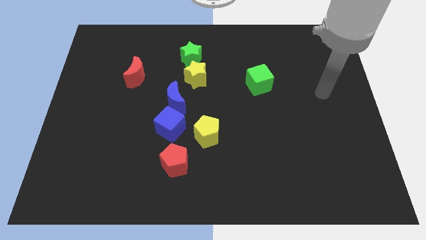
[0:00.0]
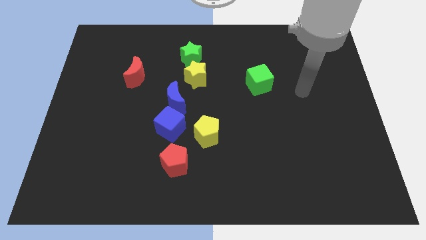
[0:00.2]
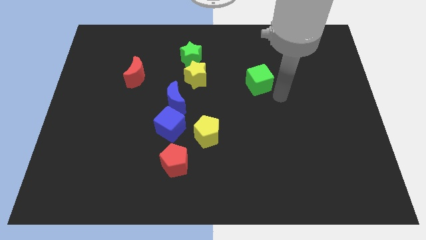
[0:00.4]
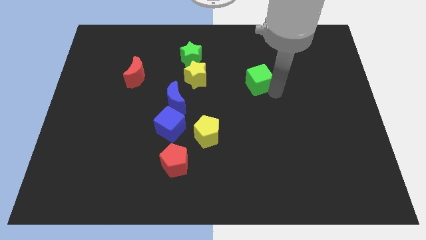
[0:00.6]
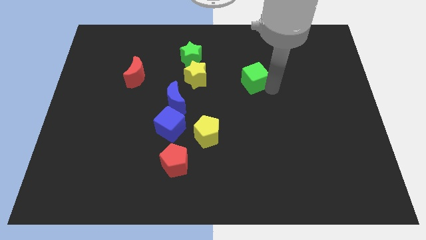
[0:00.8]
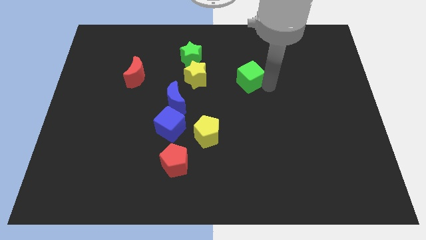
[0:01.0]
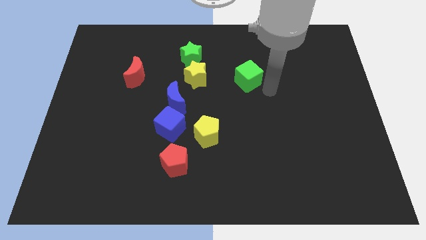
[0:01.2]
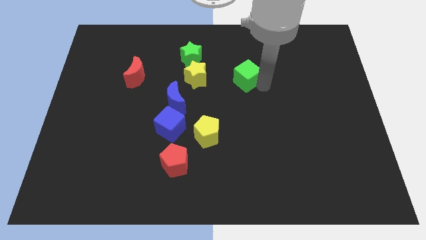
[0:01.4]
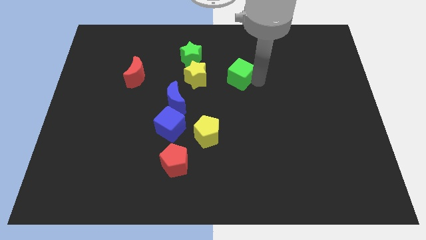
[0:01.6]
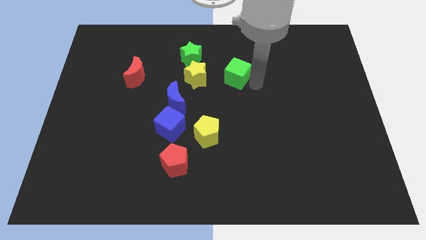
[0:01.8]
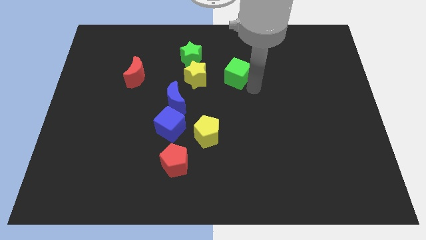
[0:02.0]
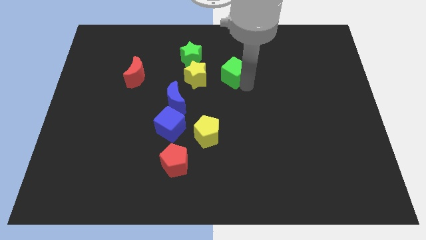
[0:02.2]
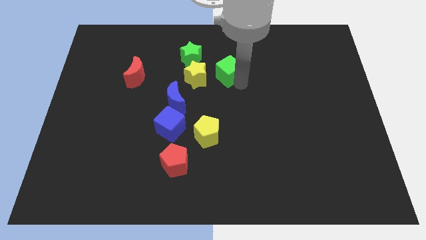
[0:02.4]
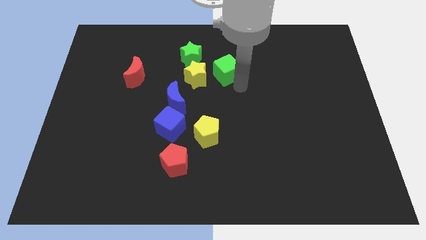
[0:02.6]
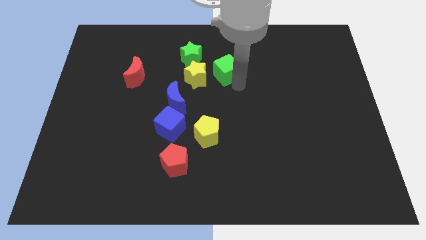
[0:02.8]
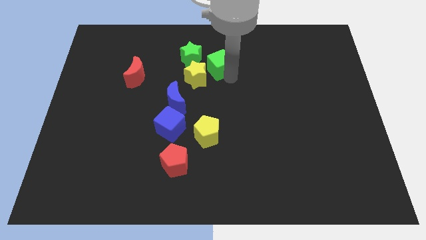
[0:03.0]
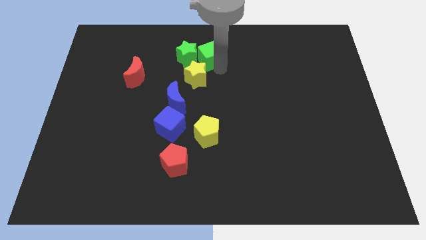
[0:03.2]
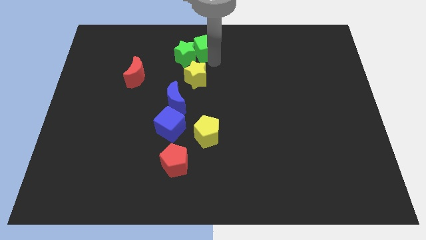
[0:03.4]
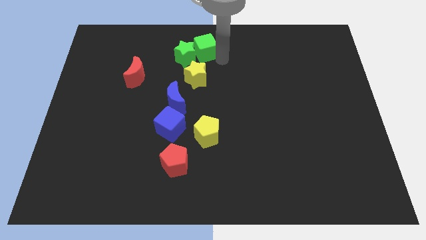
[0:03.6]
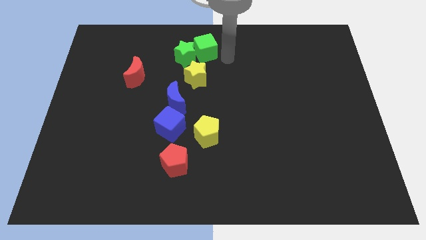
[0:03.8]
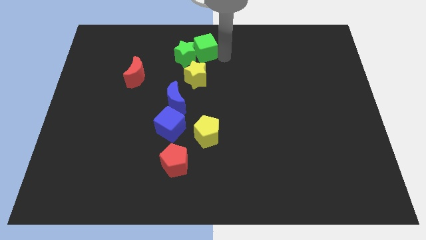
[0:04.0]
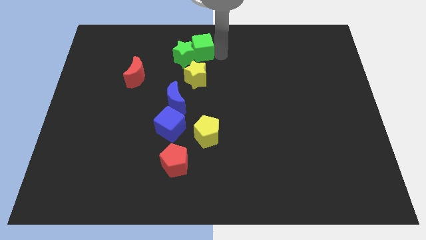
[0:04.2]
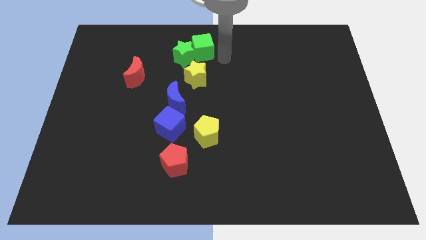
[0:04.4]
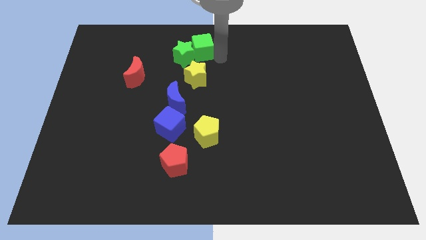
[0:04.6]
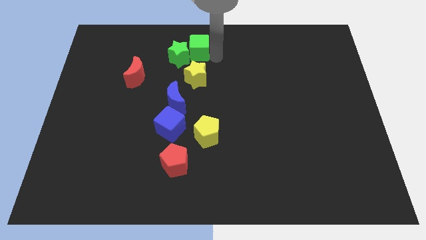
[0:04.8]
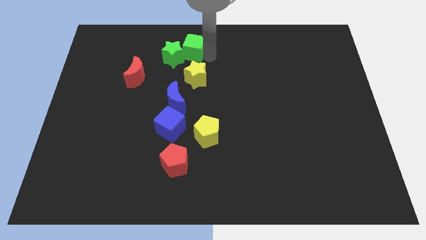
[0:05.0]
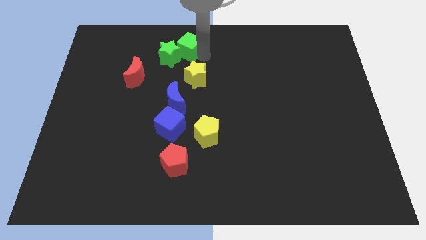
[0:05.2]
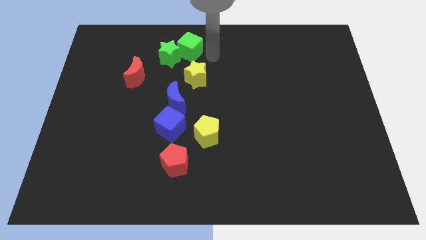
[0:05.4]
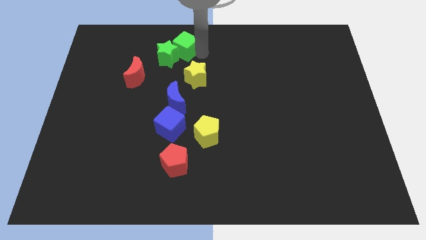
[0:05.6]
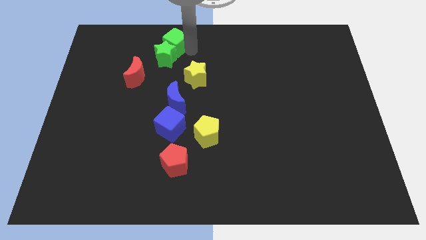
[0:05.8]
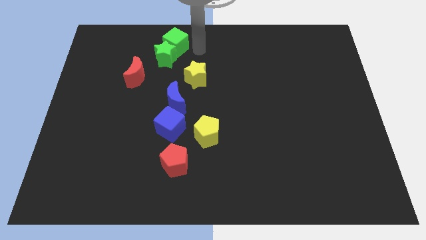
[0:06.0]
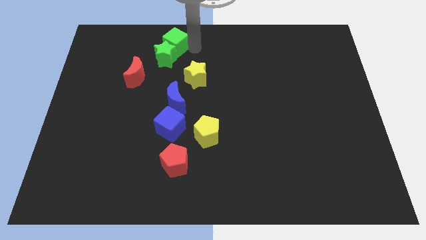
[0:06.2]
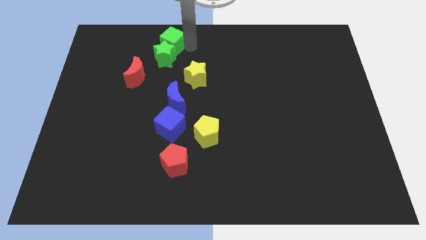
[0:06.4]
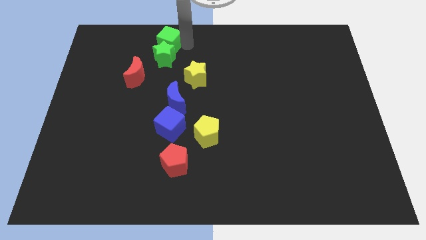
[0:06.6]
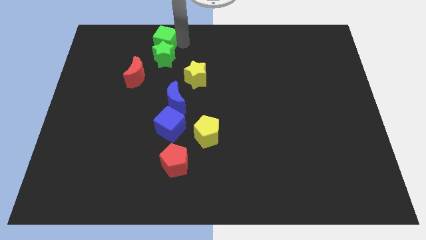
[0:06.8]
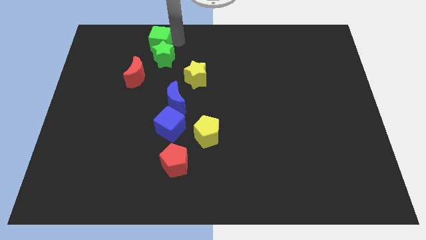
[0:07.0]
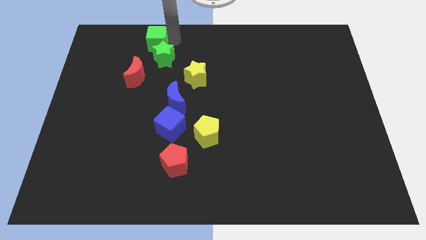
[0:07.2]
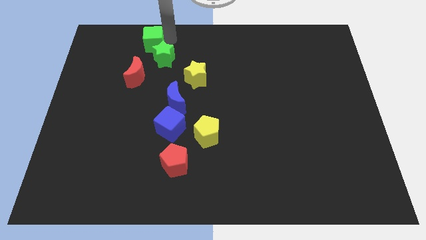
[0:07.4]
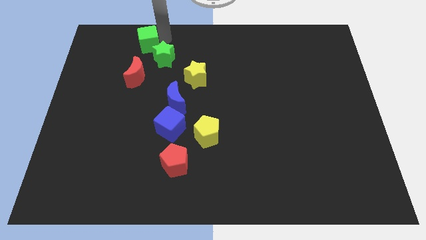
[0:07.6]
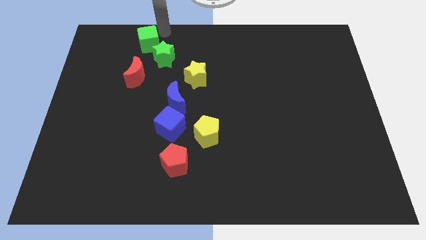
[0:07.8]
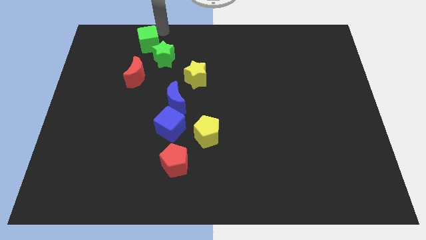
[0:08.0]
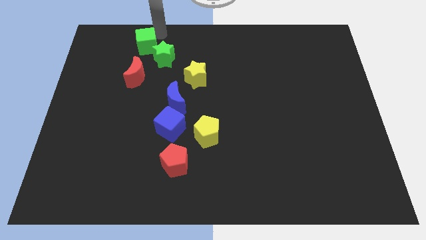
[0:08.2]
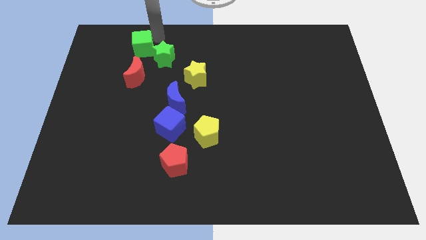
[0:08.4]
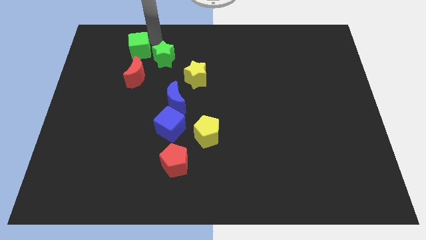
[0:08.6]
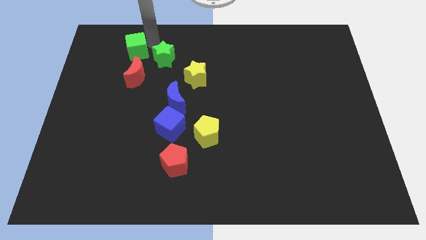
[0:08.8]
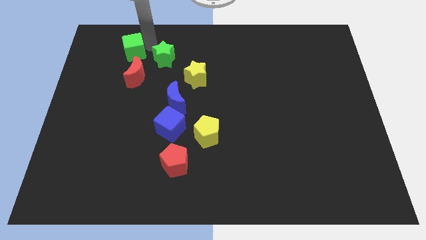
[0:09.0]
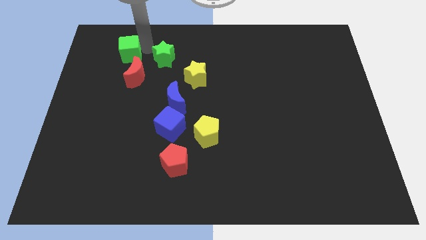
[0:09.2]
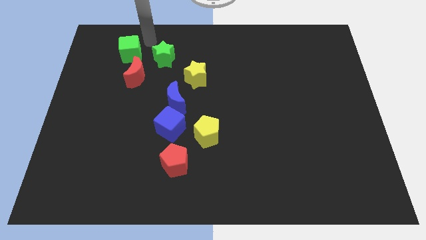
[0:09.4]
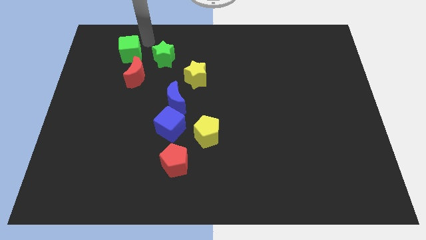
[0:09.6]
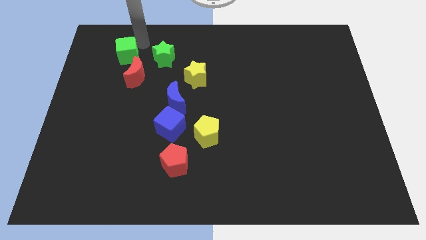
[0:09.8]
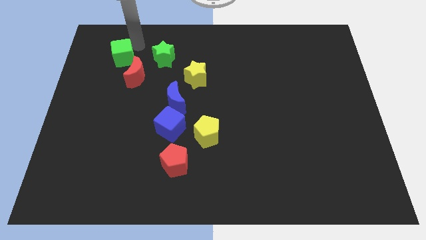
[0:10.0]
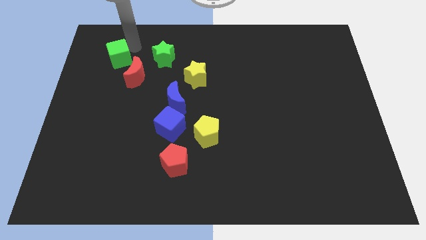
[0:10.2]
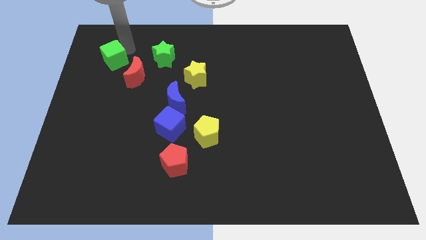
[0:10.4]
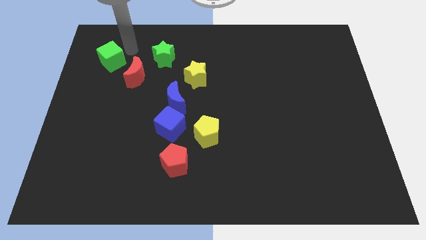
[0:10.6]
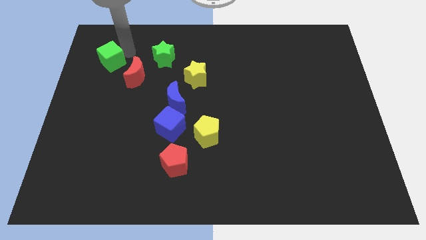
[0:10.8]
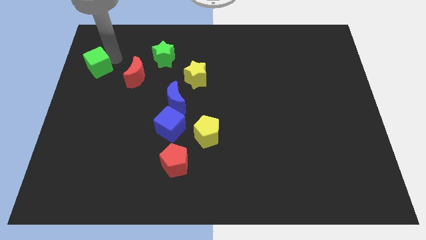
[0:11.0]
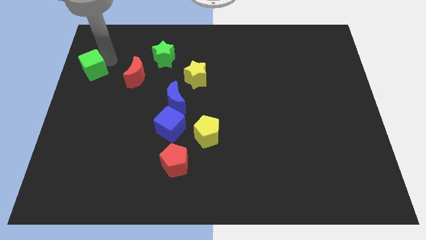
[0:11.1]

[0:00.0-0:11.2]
move the green cube to the left side of the board

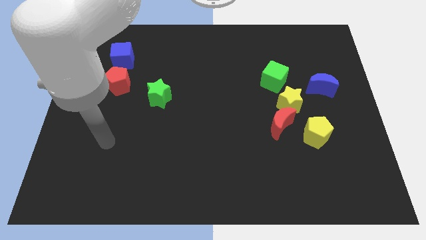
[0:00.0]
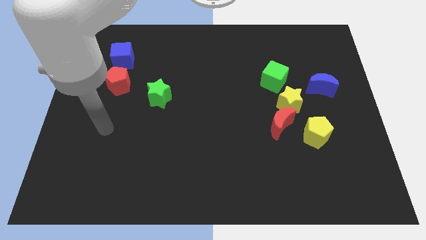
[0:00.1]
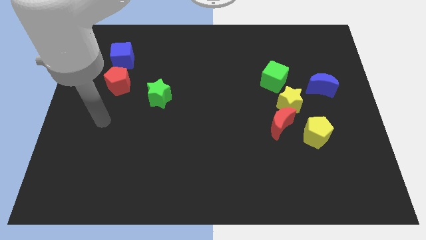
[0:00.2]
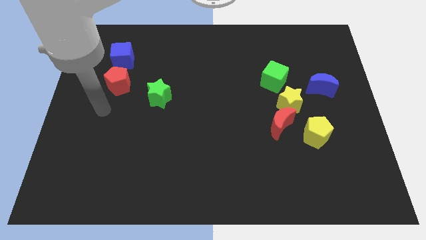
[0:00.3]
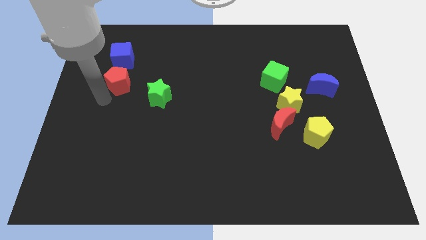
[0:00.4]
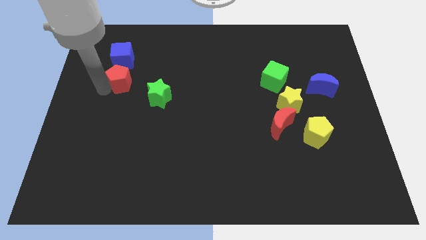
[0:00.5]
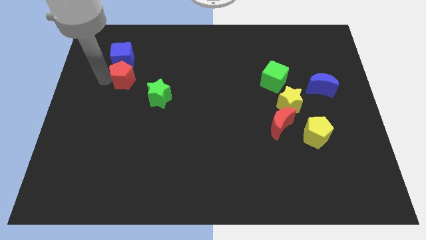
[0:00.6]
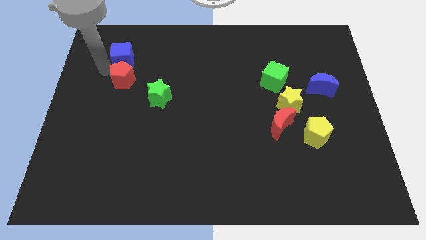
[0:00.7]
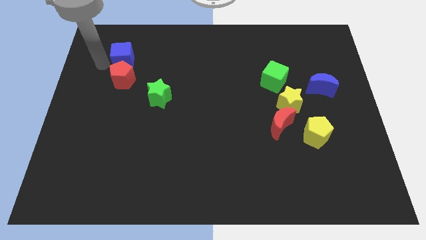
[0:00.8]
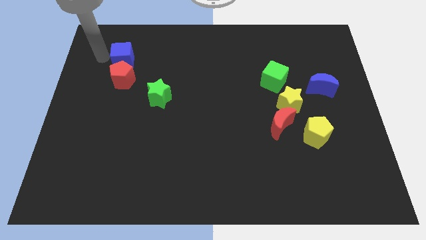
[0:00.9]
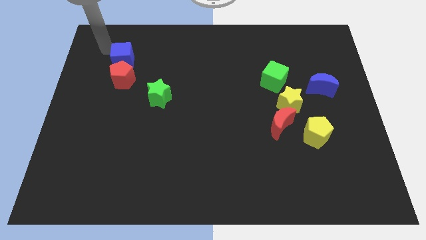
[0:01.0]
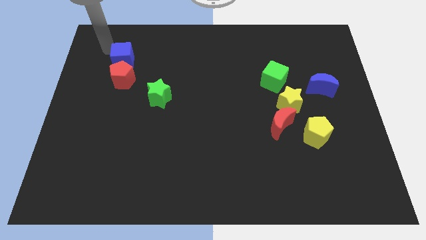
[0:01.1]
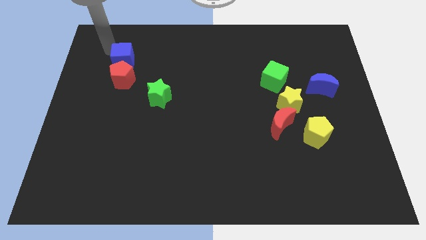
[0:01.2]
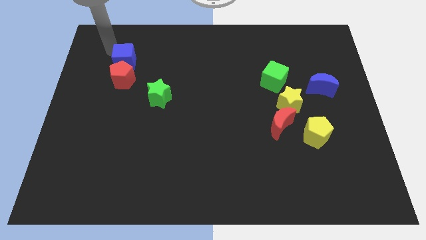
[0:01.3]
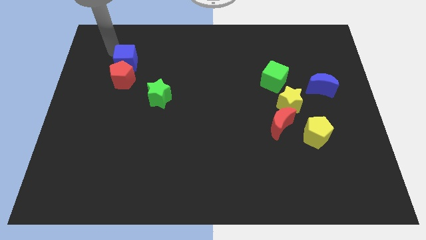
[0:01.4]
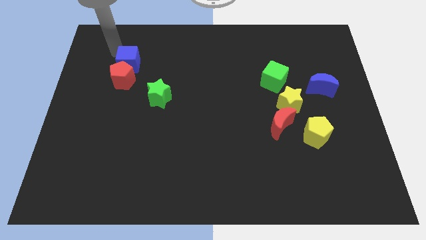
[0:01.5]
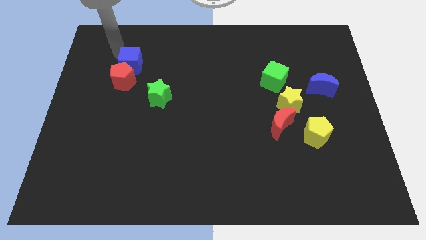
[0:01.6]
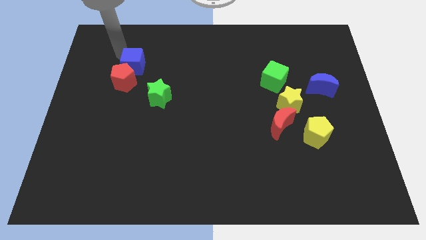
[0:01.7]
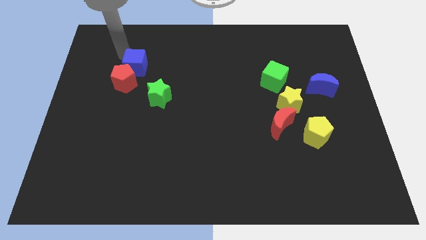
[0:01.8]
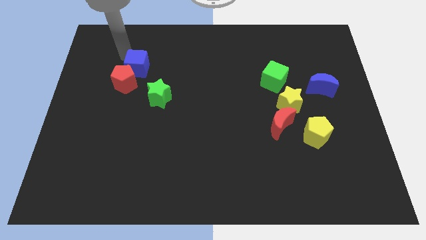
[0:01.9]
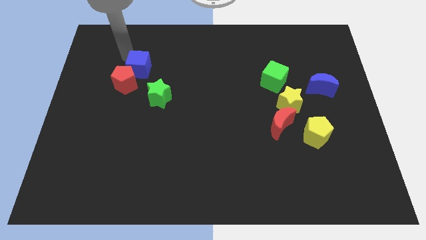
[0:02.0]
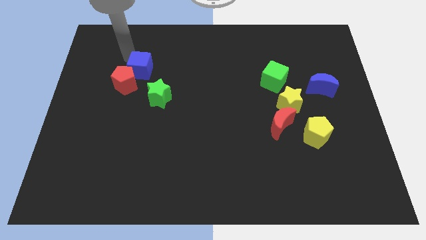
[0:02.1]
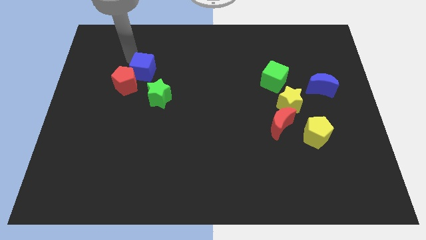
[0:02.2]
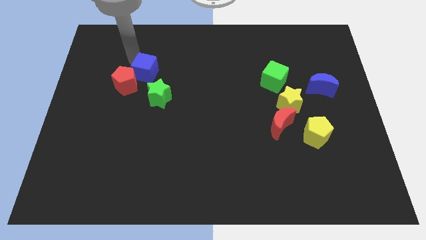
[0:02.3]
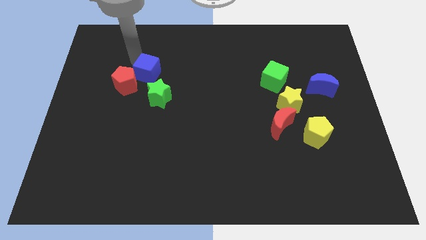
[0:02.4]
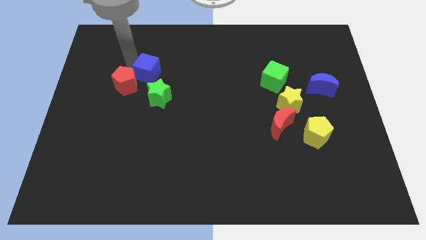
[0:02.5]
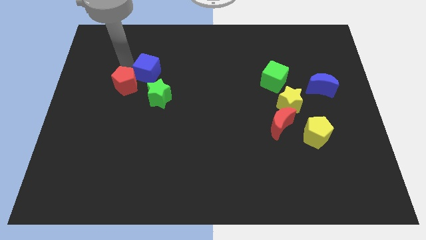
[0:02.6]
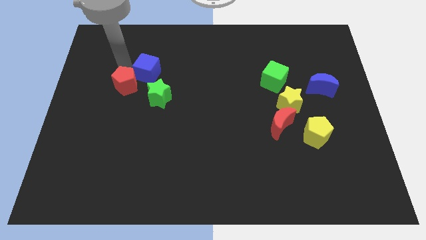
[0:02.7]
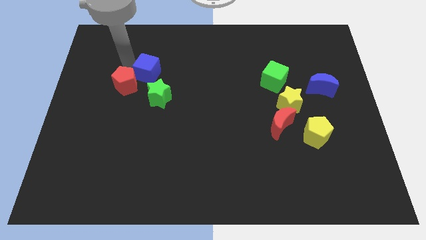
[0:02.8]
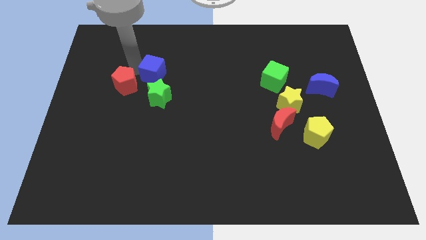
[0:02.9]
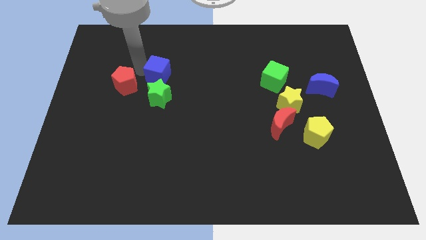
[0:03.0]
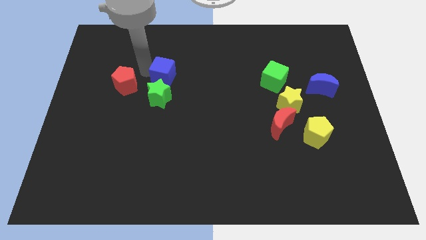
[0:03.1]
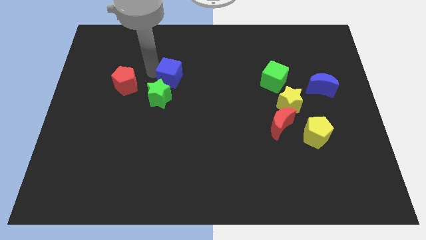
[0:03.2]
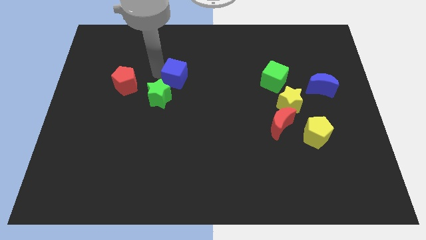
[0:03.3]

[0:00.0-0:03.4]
put the blue cube to the center of the board
